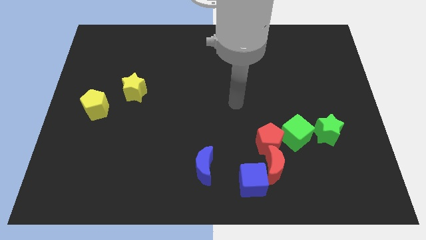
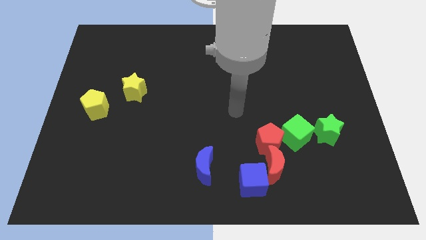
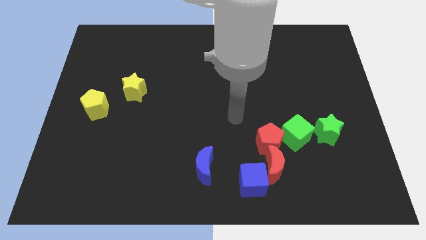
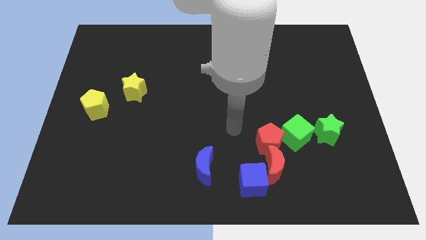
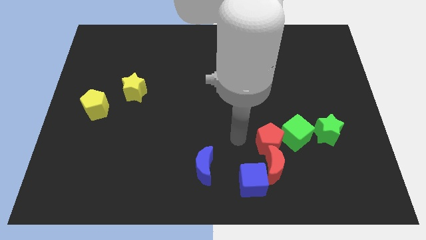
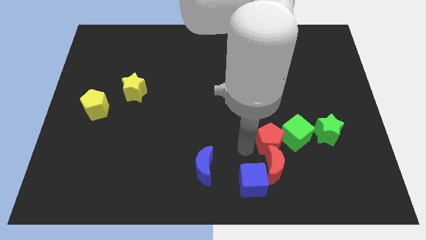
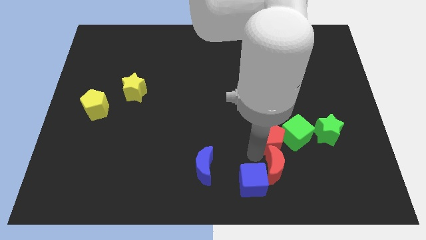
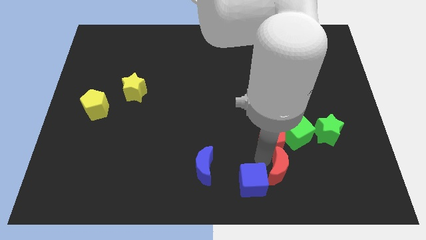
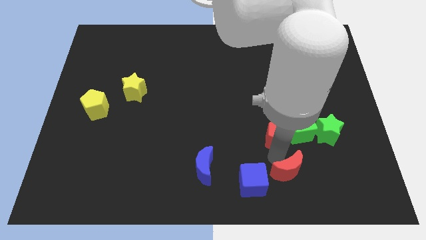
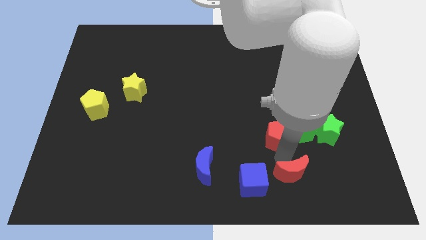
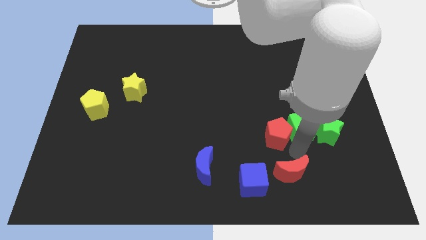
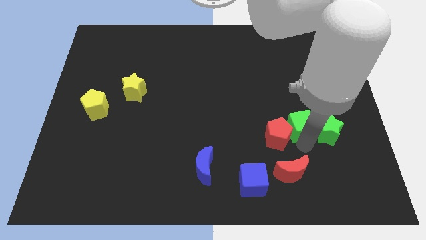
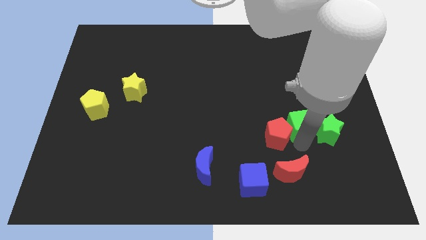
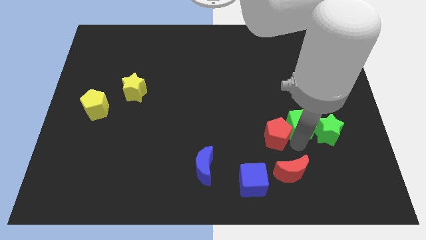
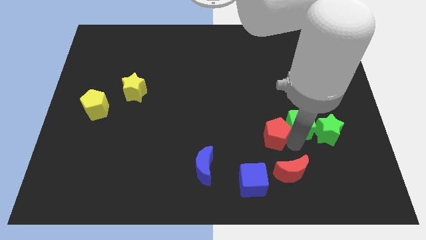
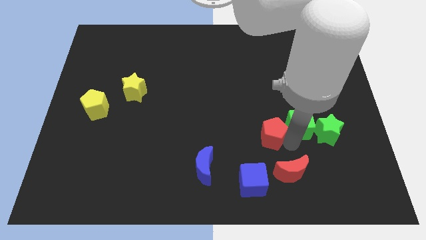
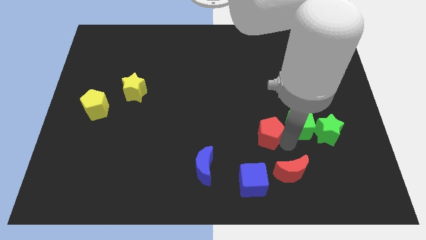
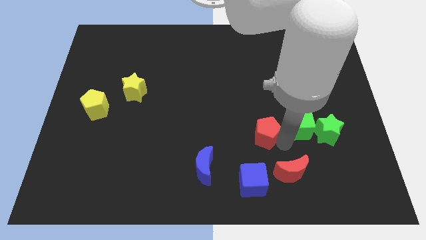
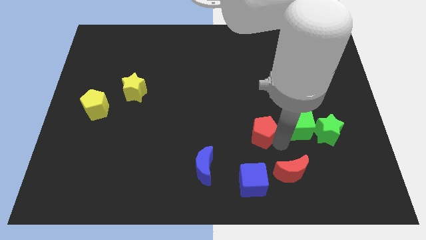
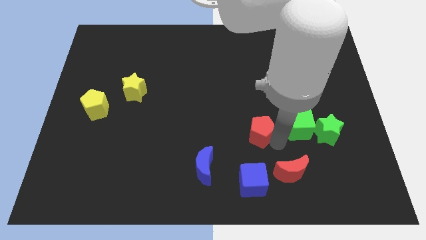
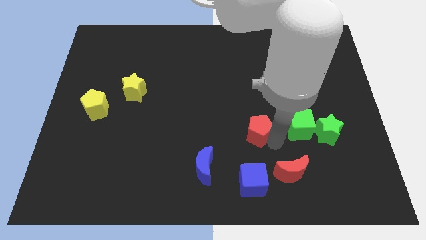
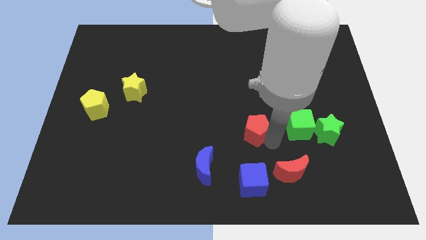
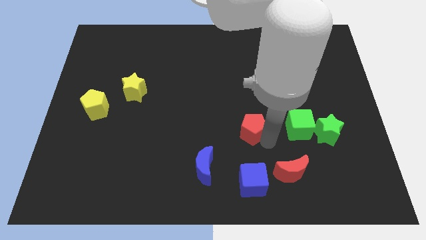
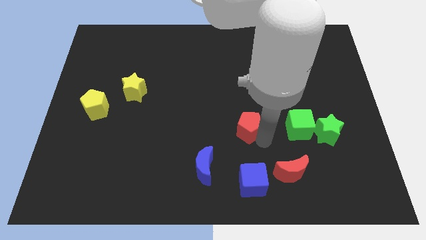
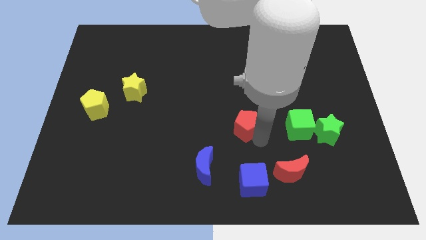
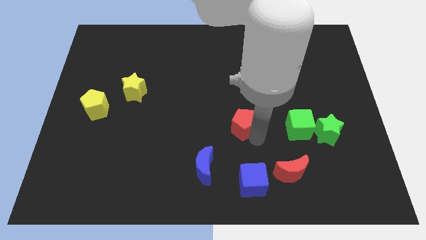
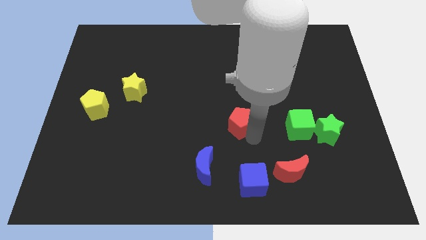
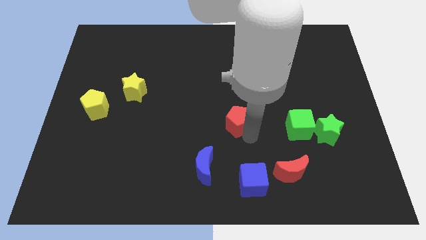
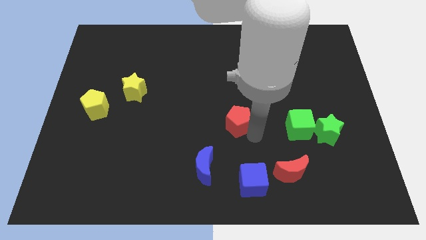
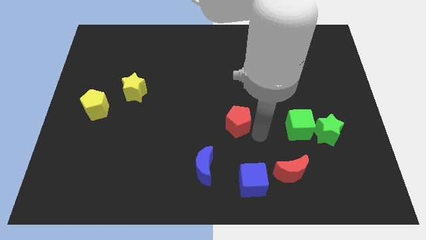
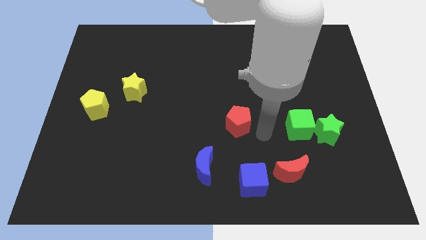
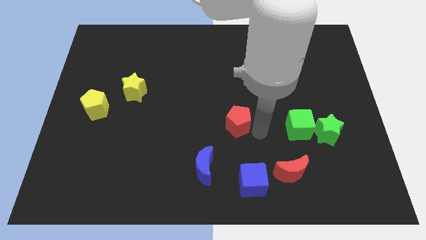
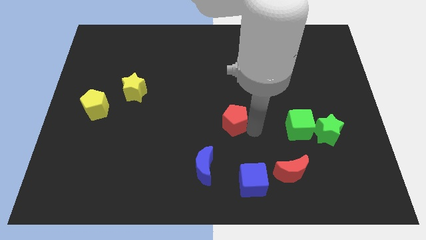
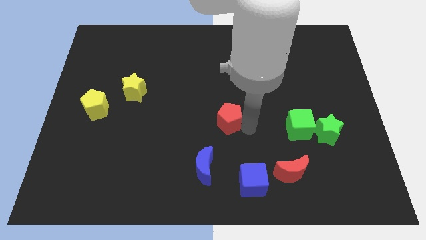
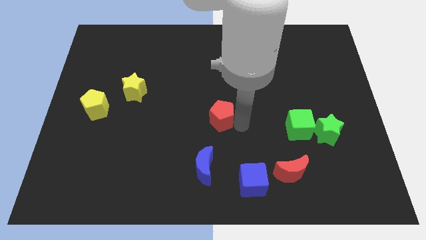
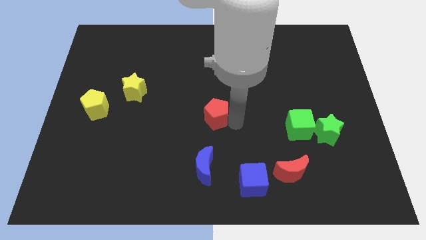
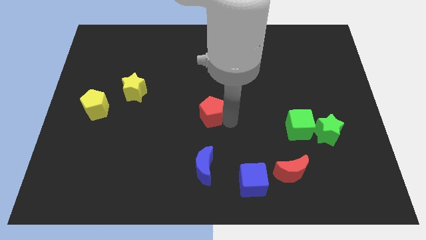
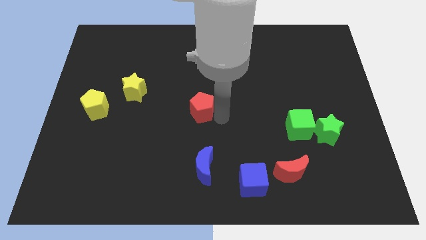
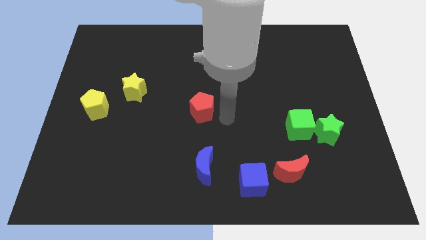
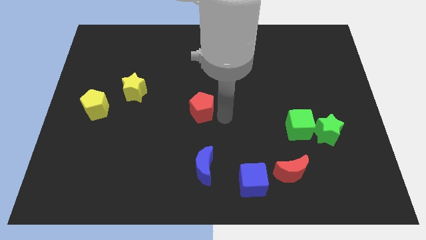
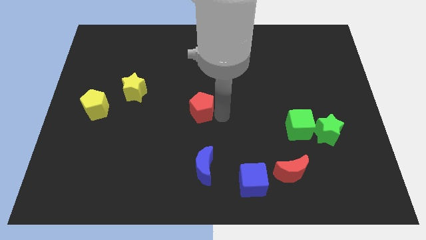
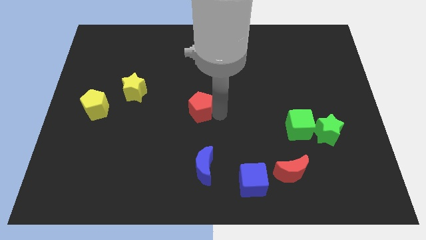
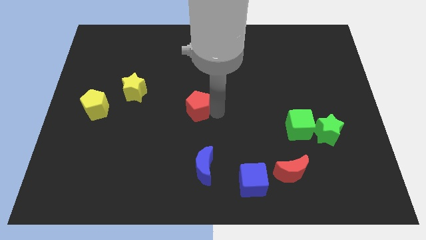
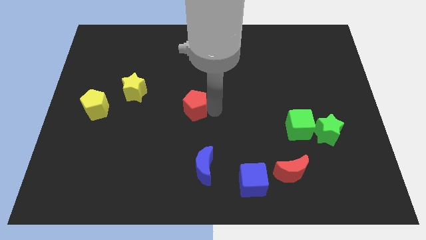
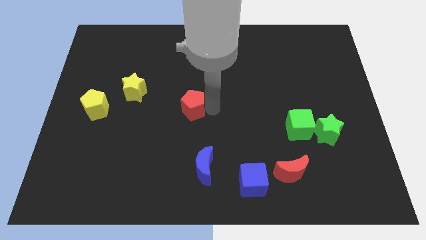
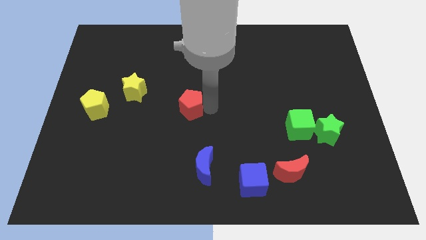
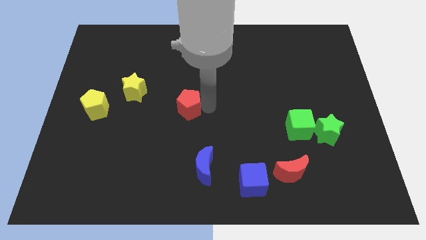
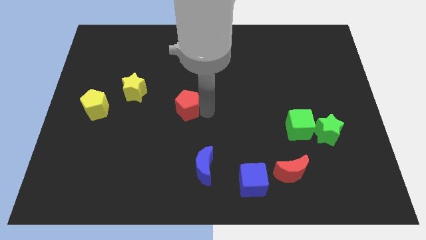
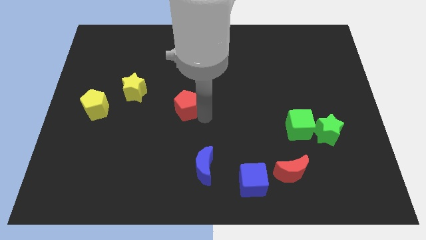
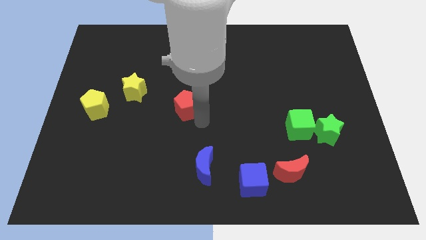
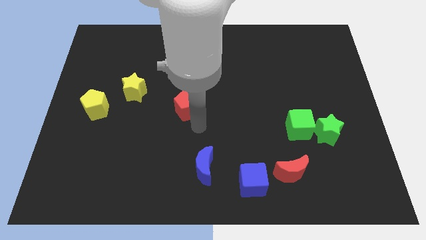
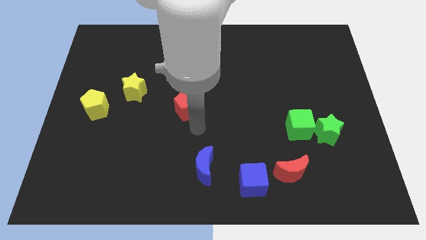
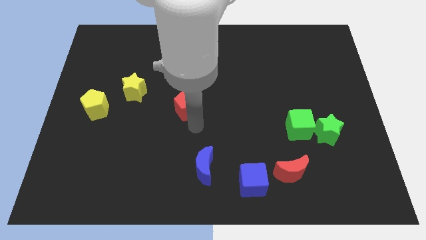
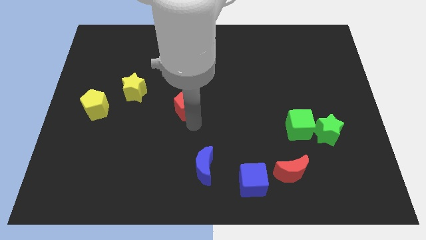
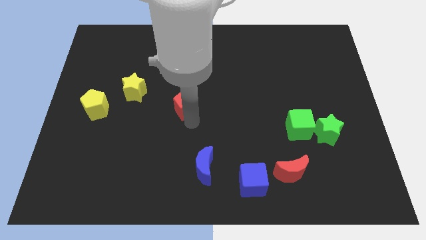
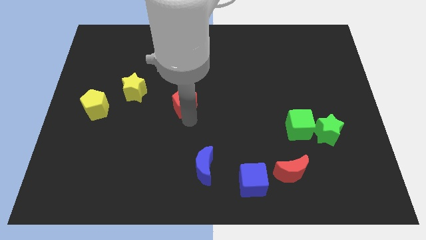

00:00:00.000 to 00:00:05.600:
slide the red pentagon right of the yellow star
